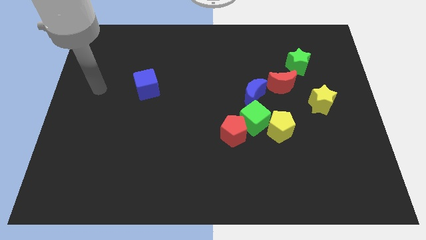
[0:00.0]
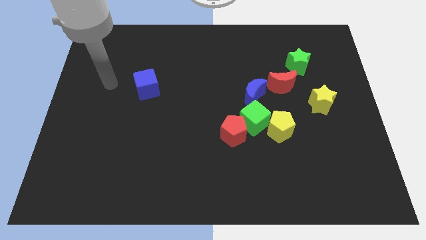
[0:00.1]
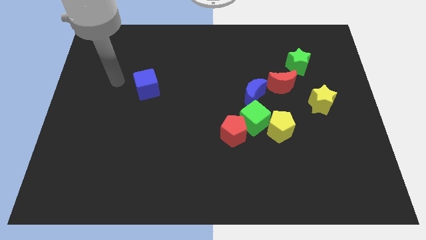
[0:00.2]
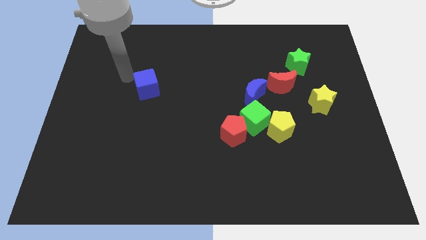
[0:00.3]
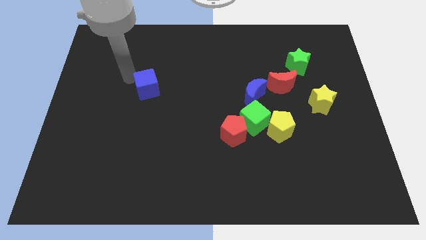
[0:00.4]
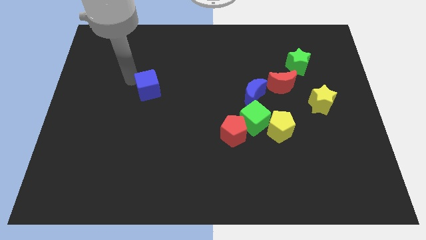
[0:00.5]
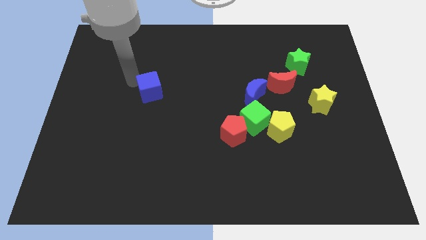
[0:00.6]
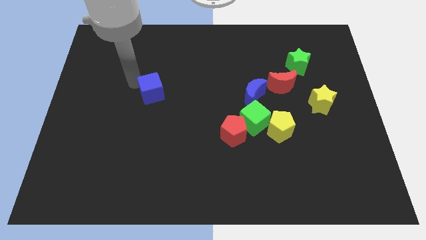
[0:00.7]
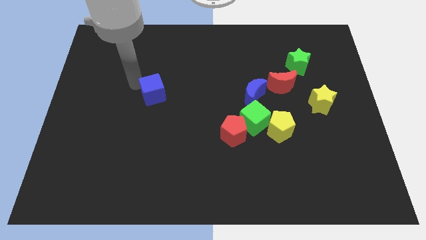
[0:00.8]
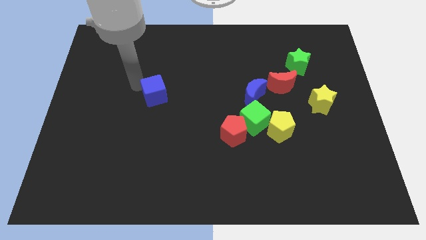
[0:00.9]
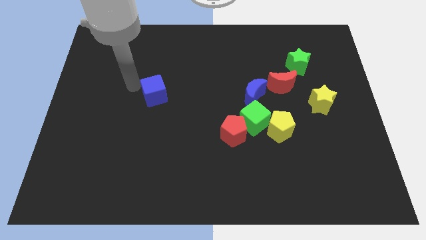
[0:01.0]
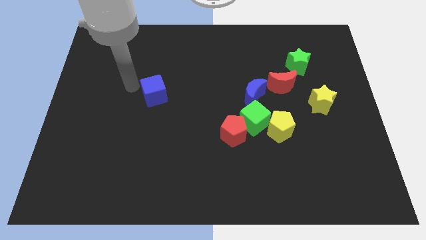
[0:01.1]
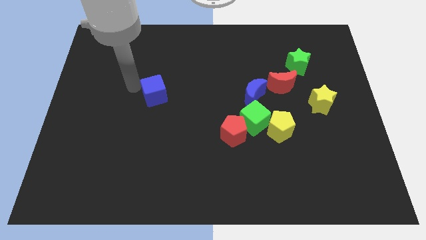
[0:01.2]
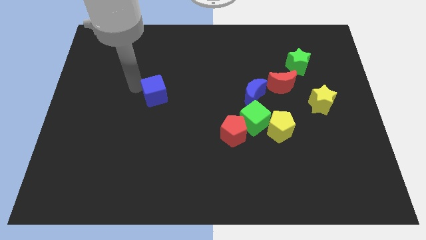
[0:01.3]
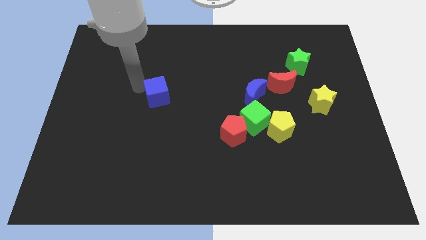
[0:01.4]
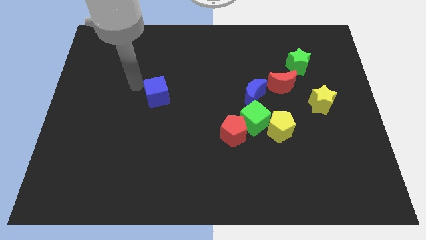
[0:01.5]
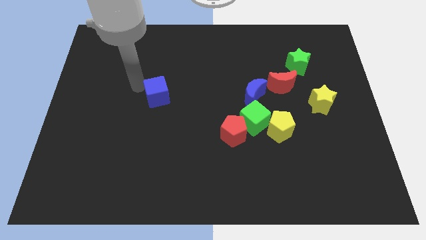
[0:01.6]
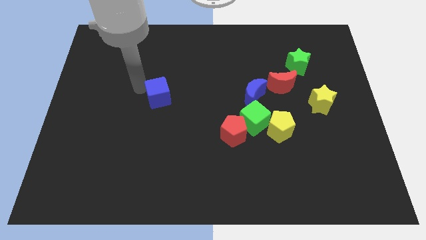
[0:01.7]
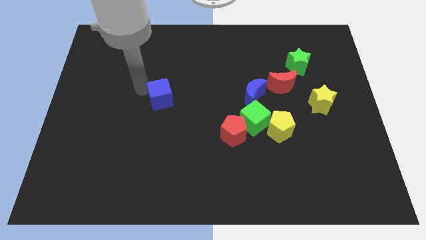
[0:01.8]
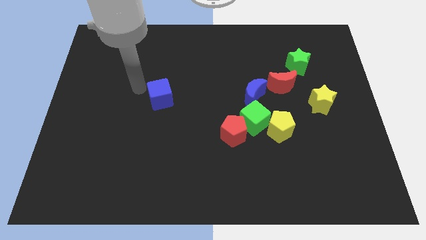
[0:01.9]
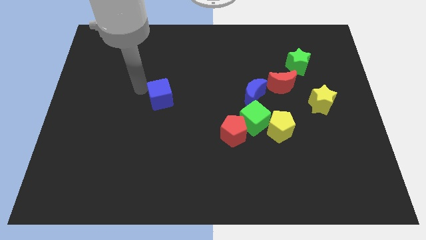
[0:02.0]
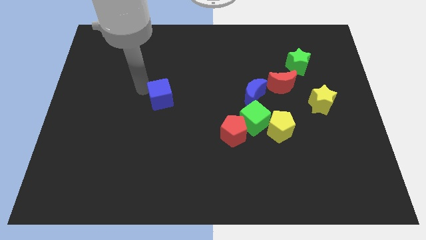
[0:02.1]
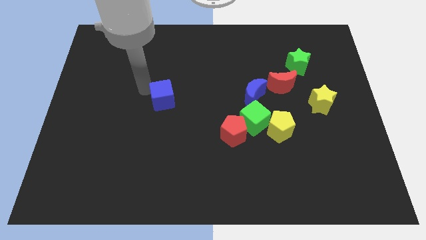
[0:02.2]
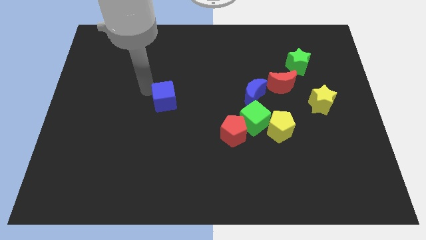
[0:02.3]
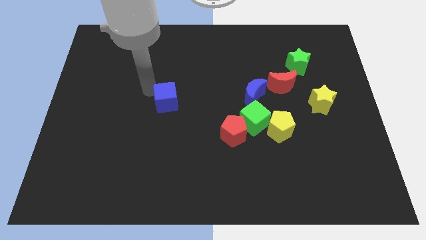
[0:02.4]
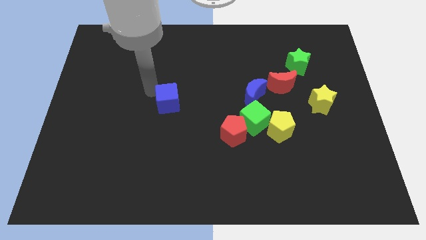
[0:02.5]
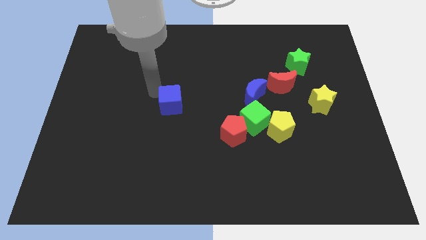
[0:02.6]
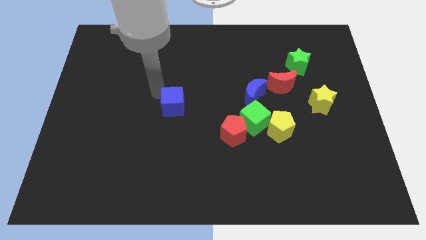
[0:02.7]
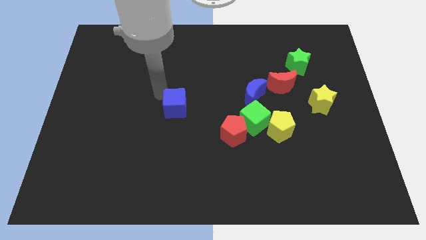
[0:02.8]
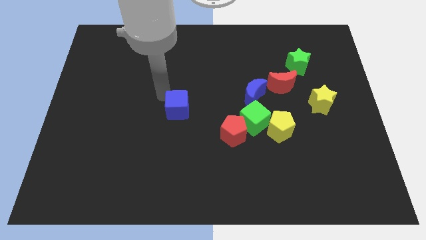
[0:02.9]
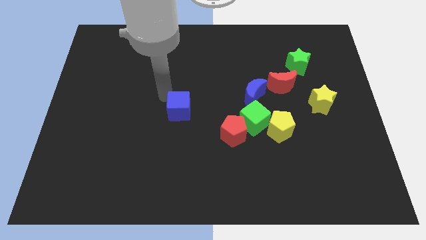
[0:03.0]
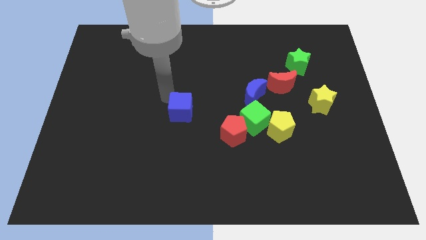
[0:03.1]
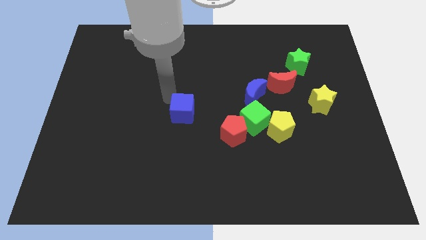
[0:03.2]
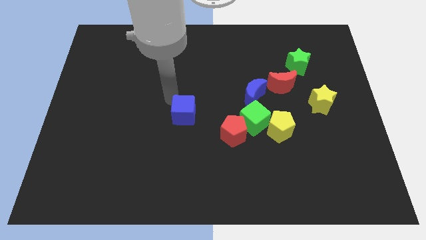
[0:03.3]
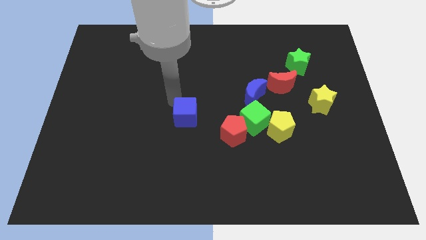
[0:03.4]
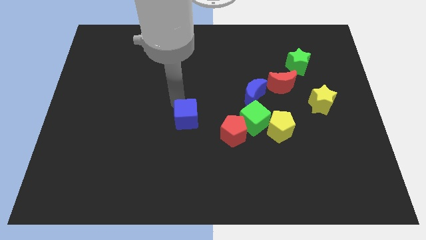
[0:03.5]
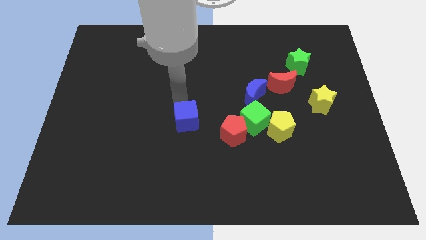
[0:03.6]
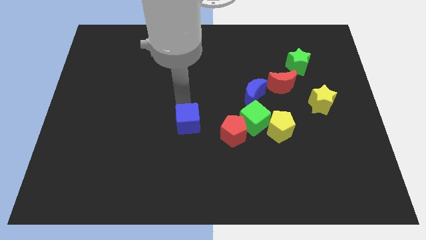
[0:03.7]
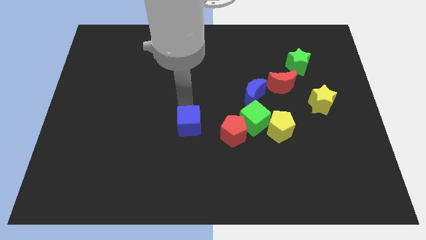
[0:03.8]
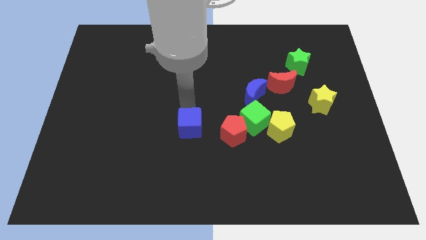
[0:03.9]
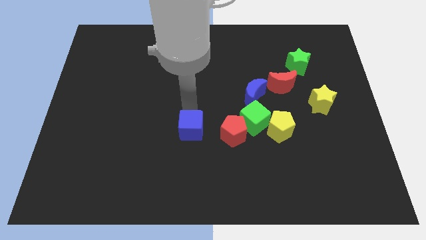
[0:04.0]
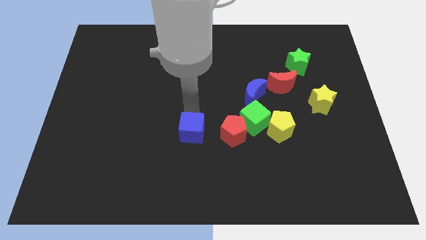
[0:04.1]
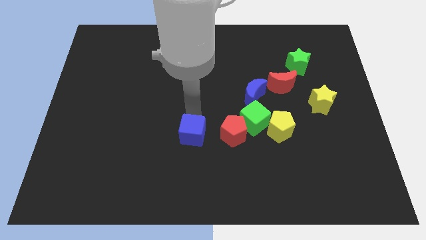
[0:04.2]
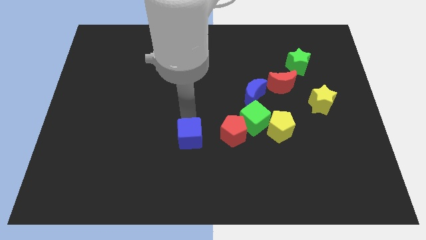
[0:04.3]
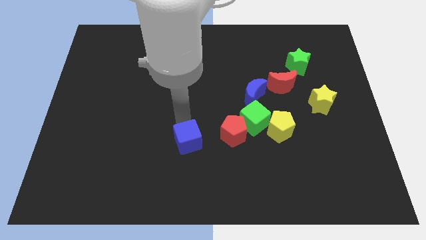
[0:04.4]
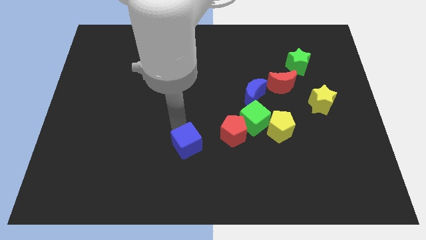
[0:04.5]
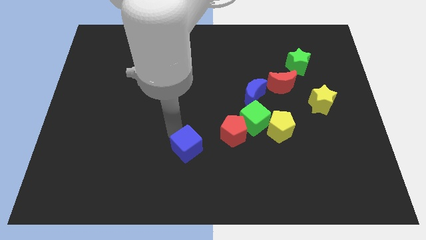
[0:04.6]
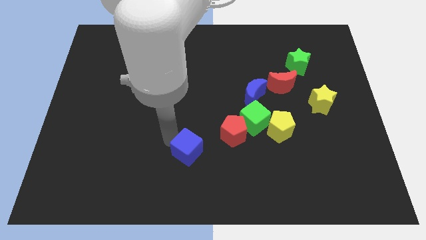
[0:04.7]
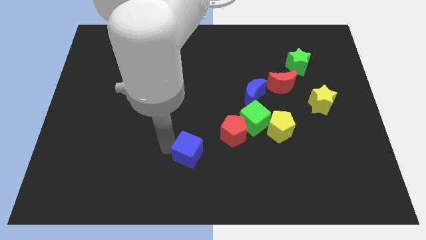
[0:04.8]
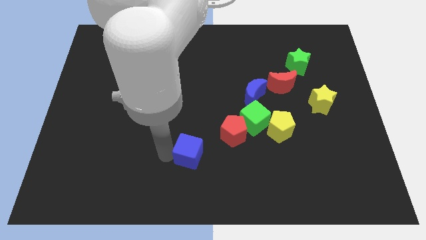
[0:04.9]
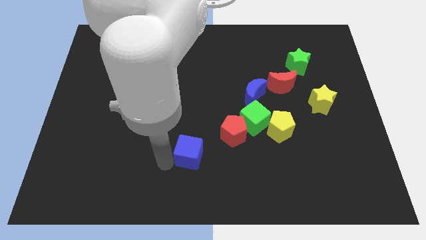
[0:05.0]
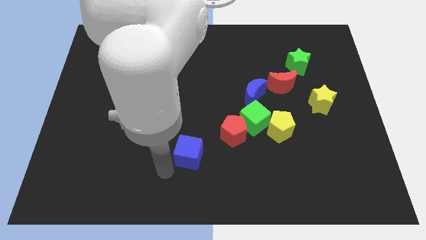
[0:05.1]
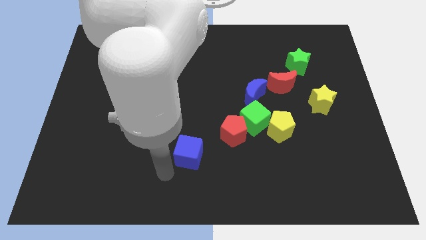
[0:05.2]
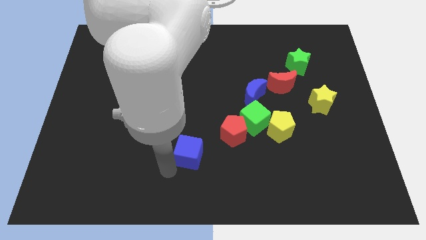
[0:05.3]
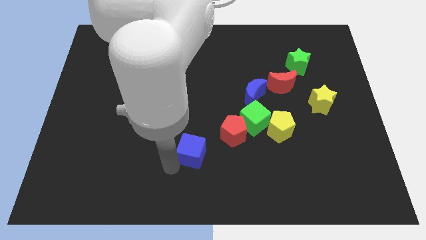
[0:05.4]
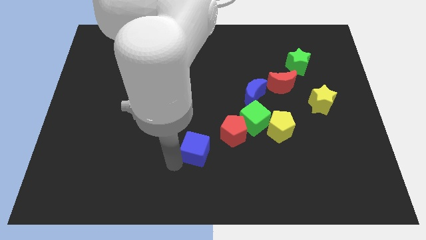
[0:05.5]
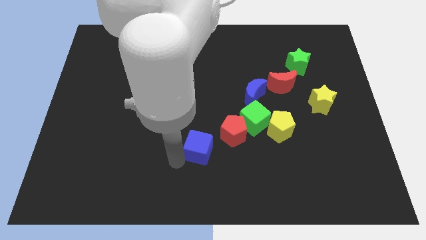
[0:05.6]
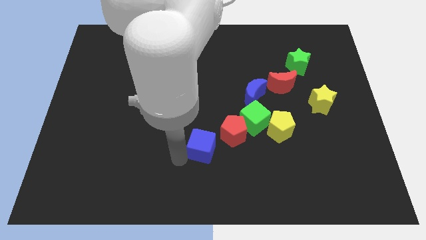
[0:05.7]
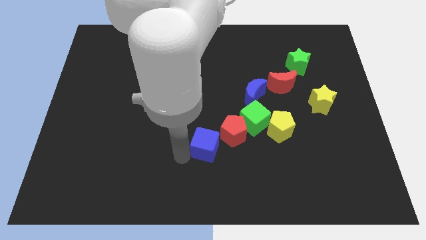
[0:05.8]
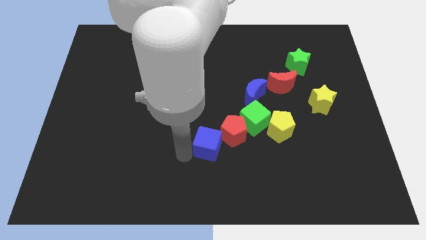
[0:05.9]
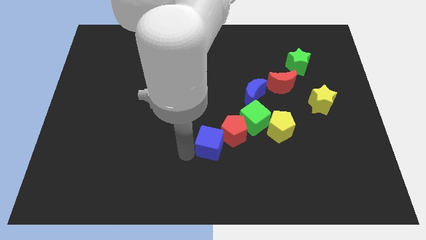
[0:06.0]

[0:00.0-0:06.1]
slide the blue cube close to the red pentagon

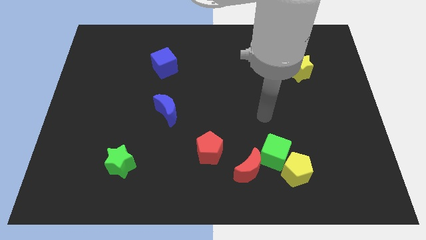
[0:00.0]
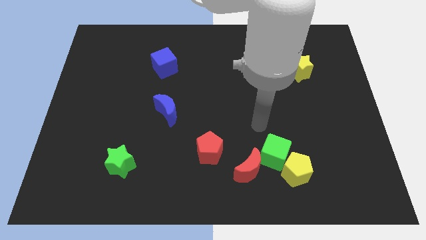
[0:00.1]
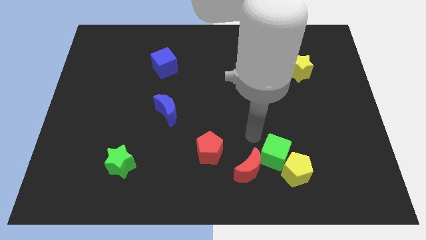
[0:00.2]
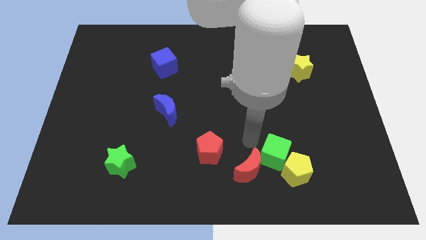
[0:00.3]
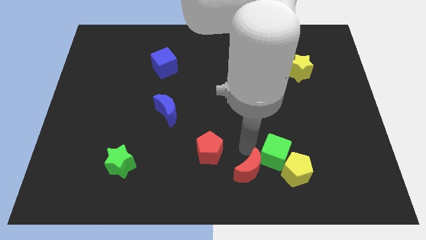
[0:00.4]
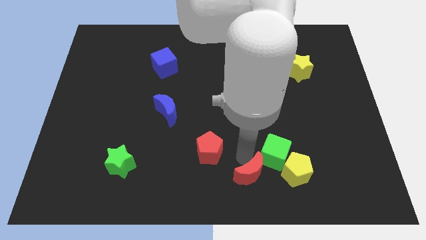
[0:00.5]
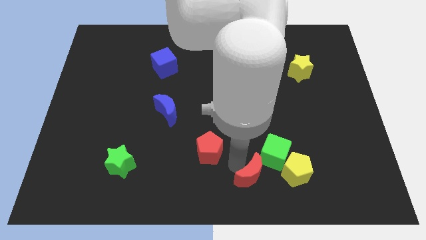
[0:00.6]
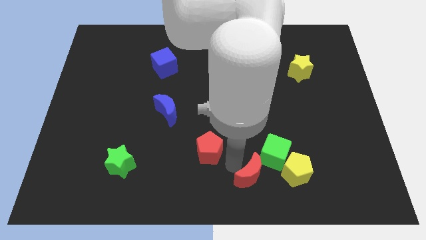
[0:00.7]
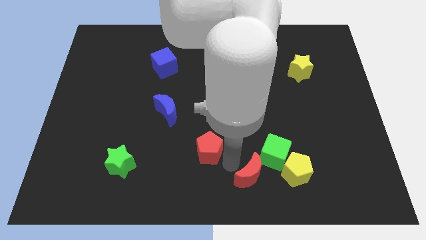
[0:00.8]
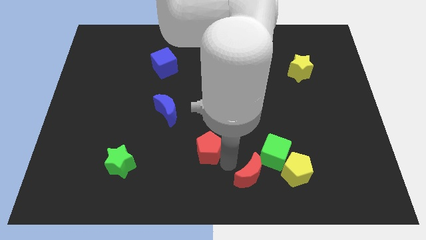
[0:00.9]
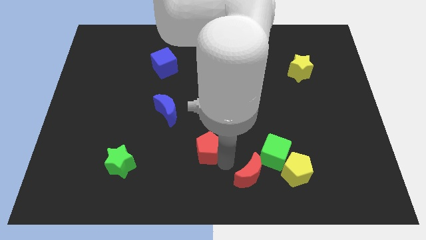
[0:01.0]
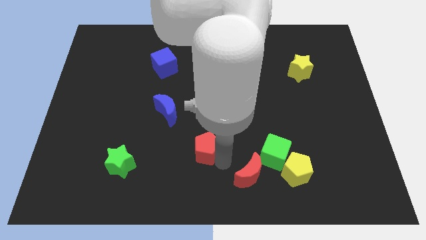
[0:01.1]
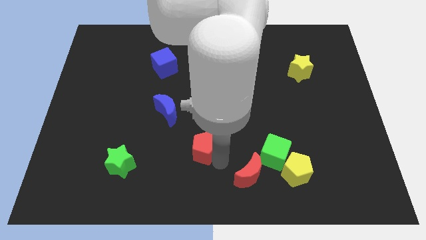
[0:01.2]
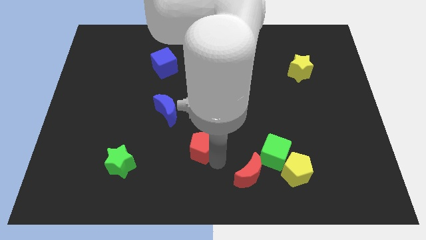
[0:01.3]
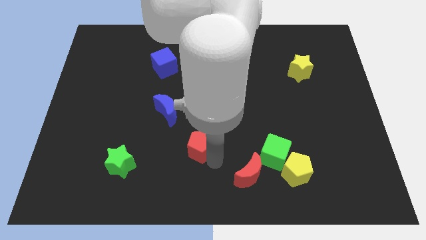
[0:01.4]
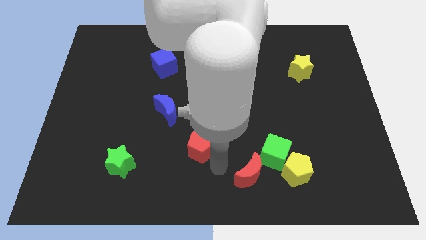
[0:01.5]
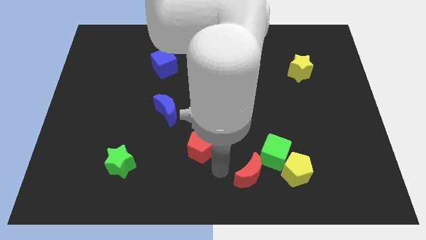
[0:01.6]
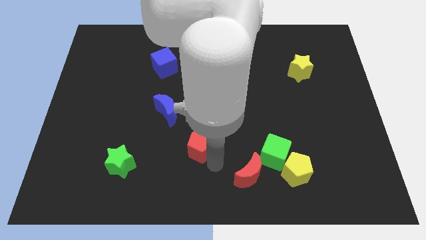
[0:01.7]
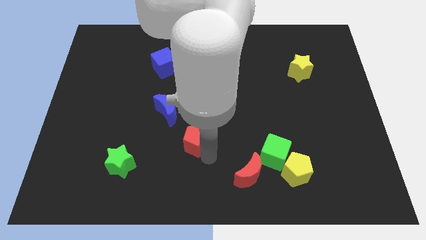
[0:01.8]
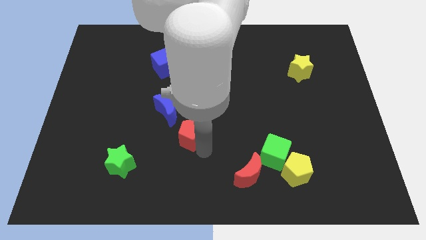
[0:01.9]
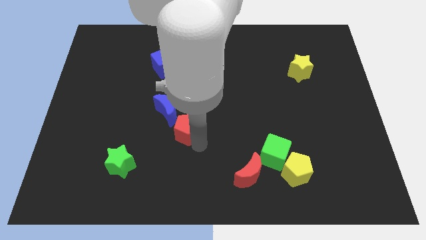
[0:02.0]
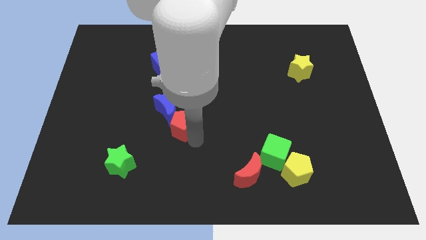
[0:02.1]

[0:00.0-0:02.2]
put the red pentagon next to the blue moon
